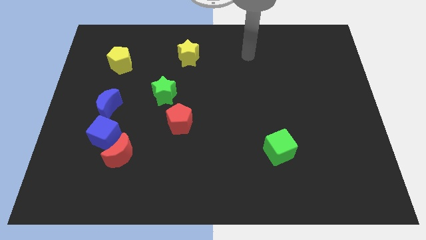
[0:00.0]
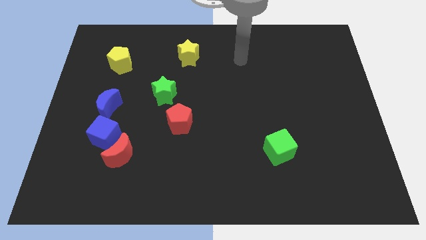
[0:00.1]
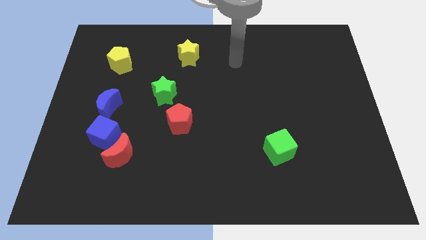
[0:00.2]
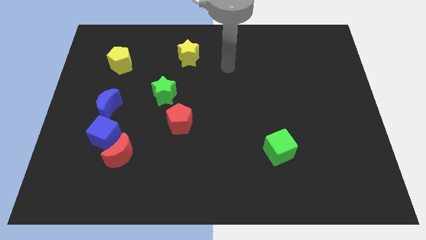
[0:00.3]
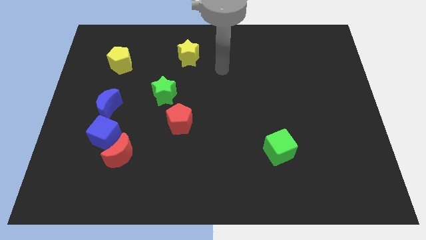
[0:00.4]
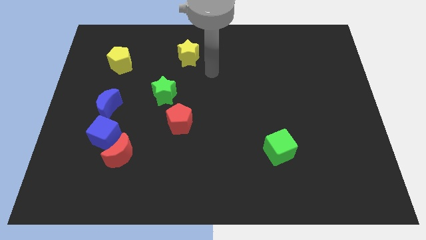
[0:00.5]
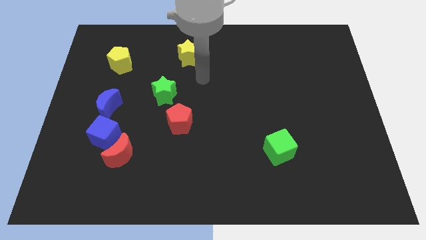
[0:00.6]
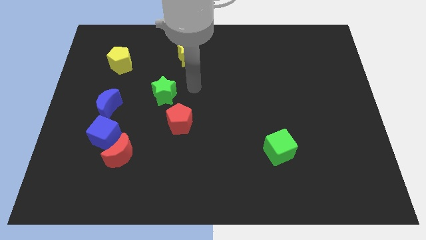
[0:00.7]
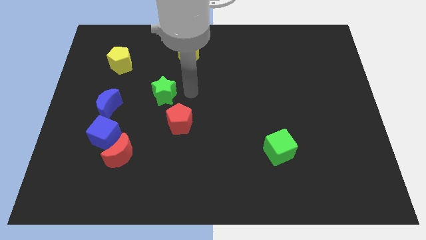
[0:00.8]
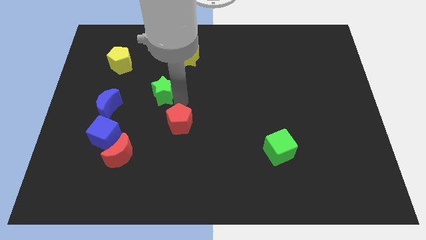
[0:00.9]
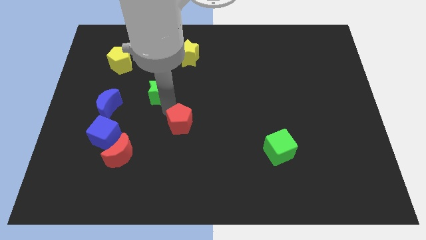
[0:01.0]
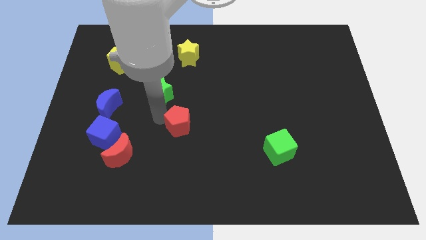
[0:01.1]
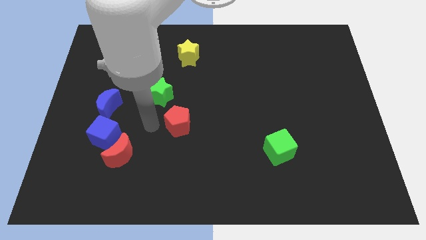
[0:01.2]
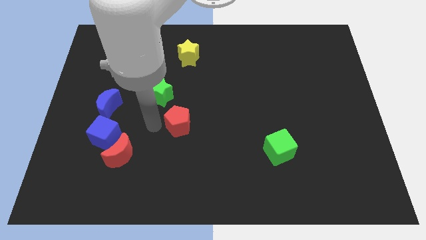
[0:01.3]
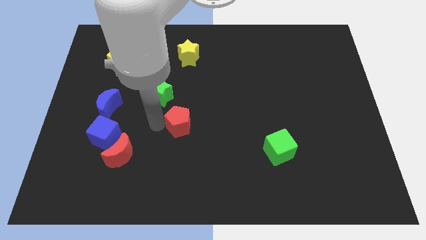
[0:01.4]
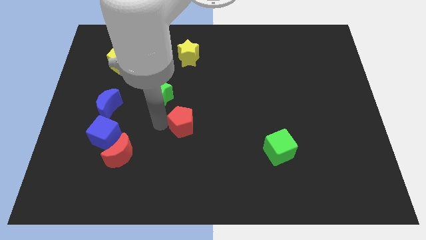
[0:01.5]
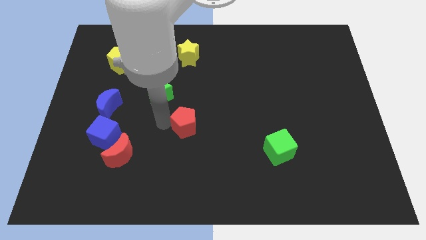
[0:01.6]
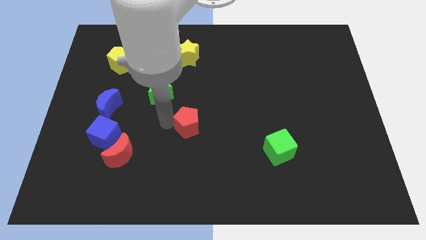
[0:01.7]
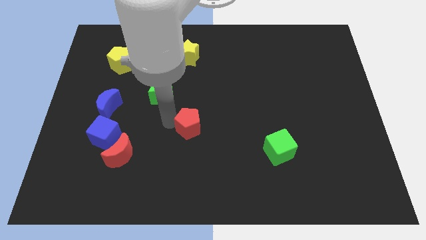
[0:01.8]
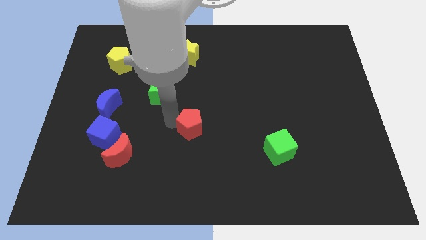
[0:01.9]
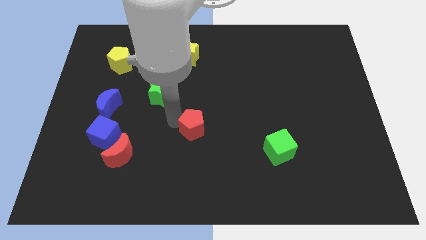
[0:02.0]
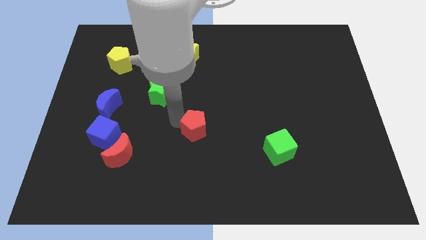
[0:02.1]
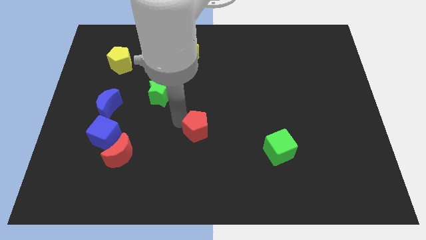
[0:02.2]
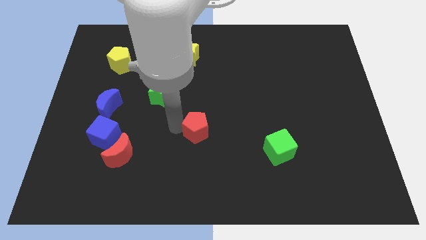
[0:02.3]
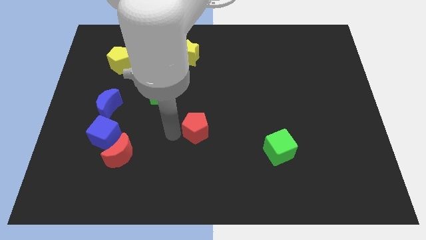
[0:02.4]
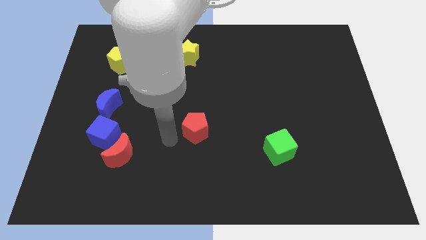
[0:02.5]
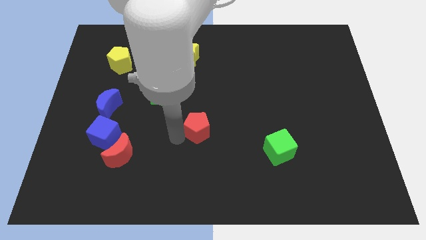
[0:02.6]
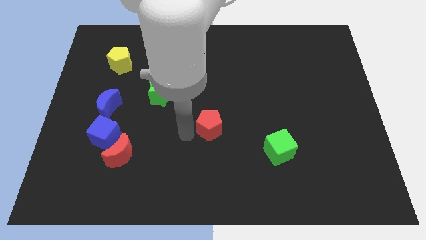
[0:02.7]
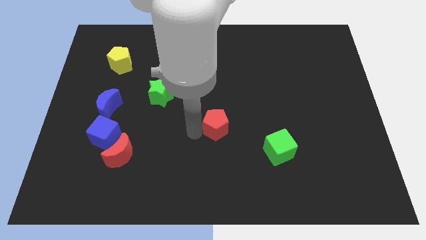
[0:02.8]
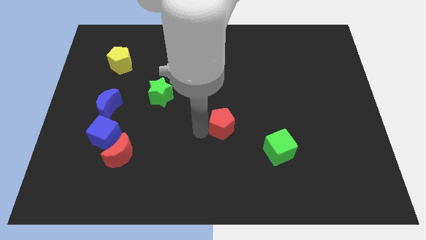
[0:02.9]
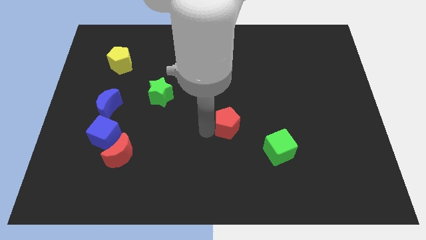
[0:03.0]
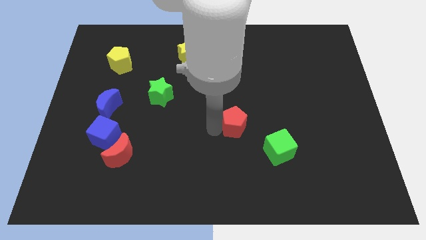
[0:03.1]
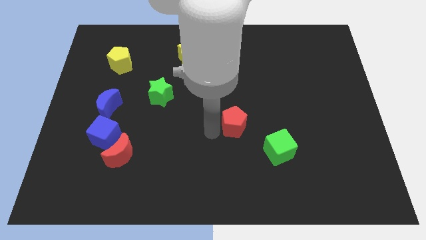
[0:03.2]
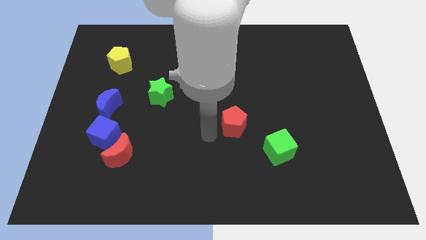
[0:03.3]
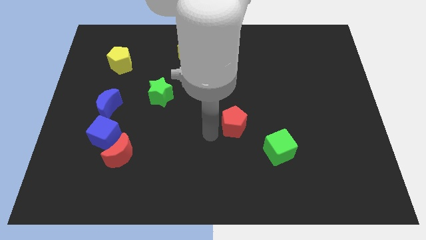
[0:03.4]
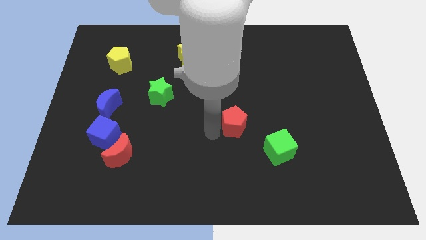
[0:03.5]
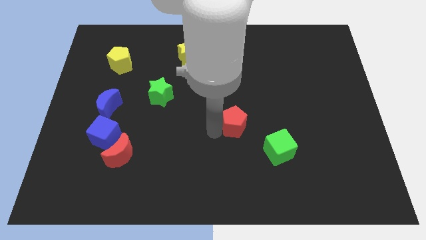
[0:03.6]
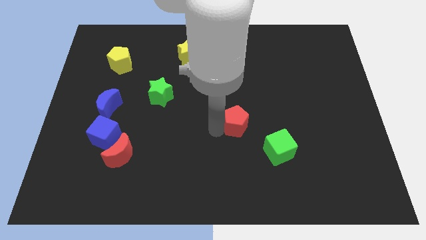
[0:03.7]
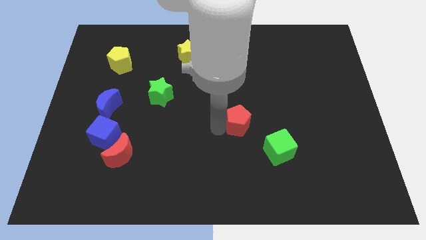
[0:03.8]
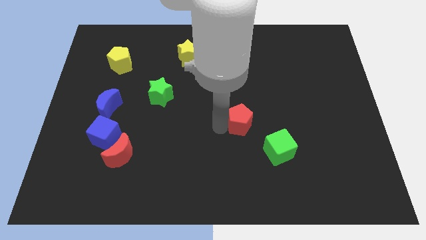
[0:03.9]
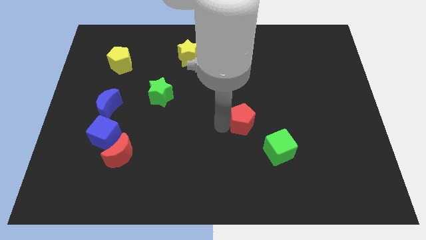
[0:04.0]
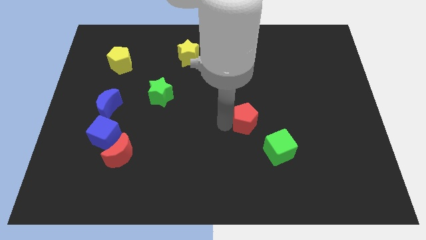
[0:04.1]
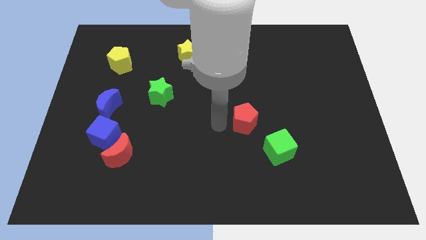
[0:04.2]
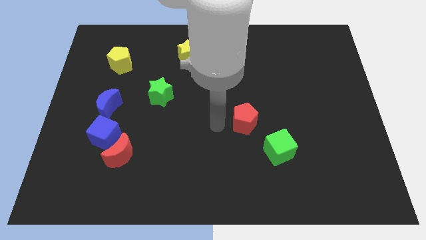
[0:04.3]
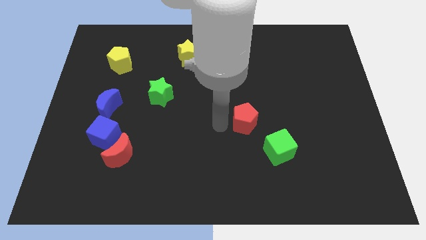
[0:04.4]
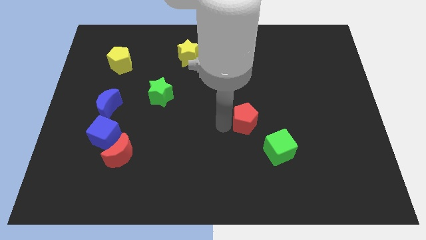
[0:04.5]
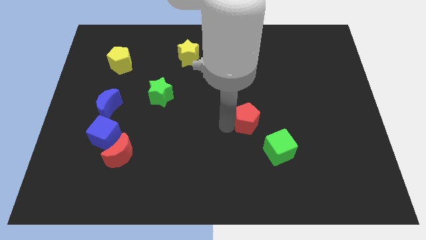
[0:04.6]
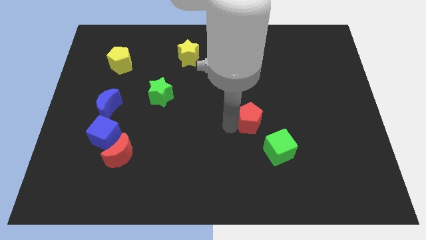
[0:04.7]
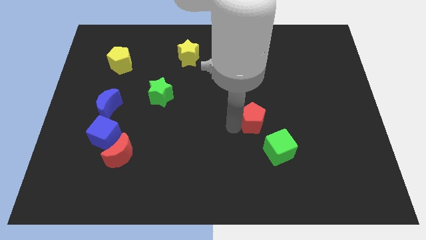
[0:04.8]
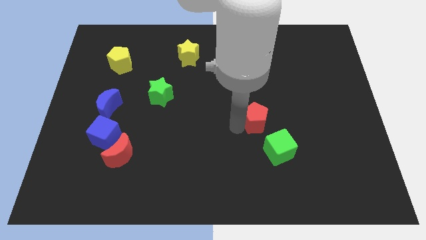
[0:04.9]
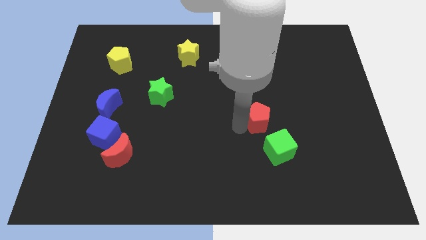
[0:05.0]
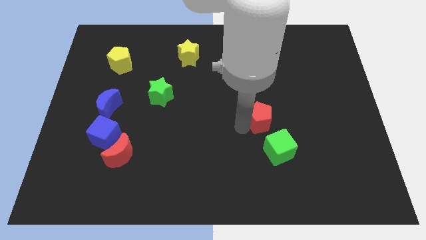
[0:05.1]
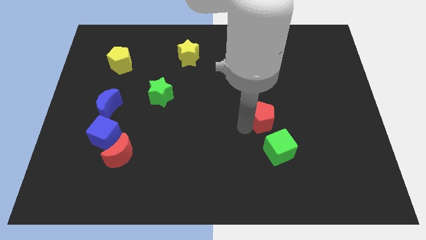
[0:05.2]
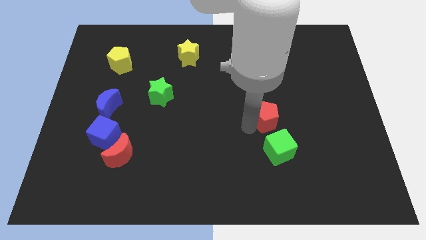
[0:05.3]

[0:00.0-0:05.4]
push the red pentagon to the right

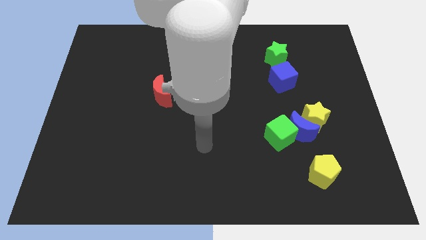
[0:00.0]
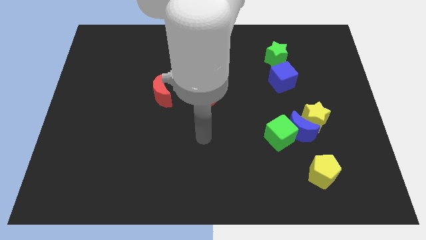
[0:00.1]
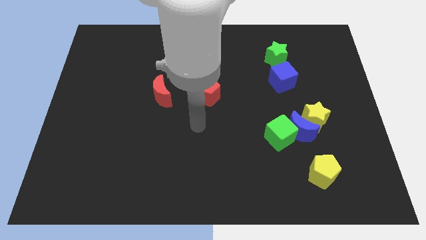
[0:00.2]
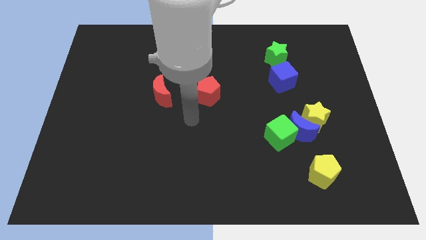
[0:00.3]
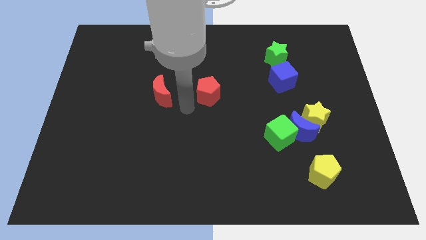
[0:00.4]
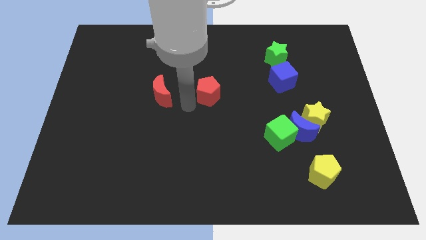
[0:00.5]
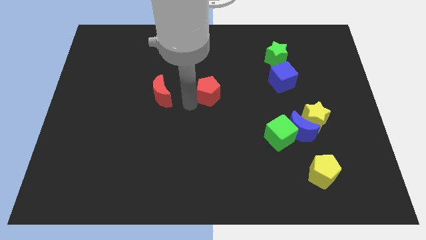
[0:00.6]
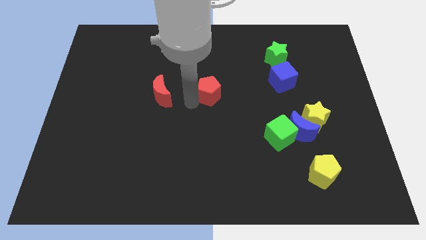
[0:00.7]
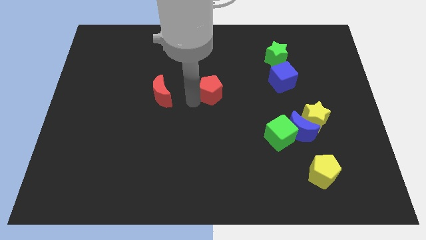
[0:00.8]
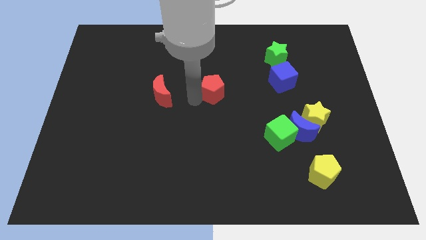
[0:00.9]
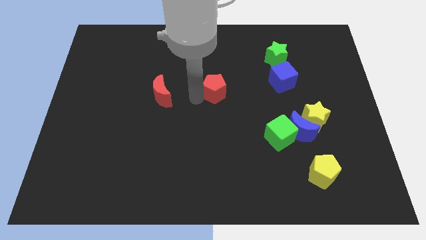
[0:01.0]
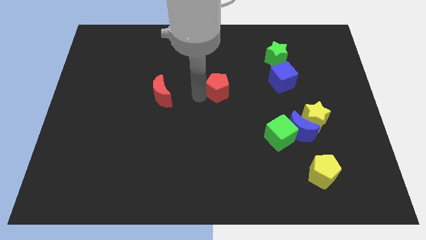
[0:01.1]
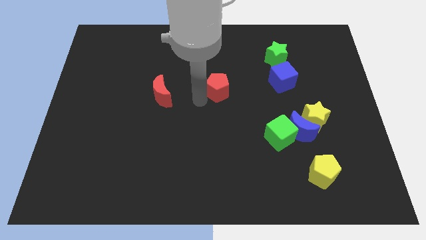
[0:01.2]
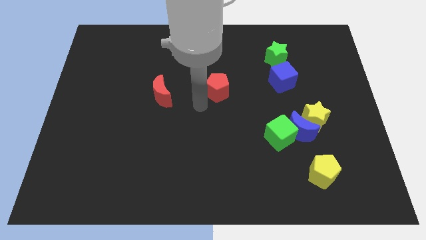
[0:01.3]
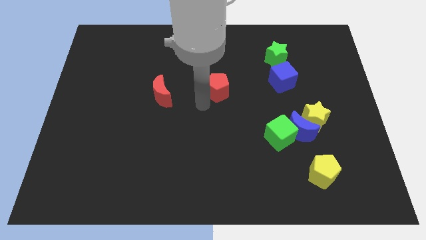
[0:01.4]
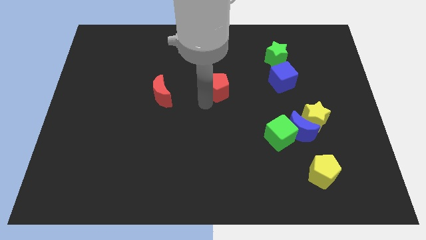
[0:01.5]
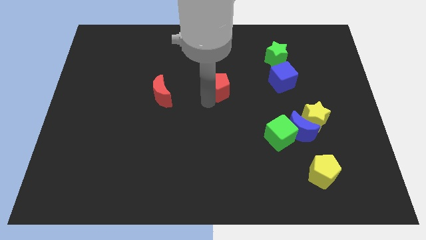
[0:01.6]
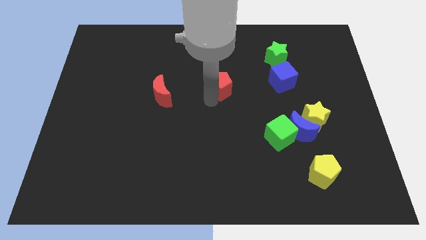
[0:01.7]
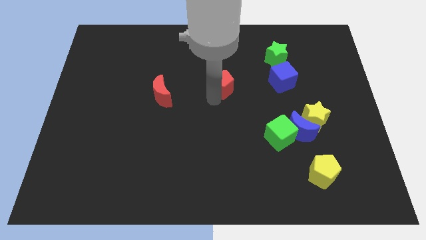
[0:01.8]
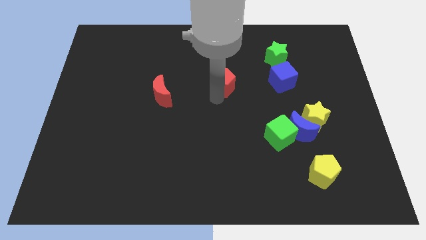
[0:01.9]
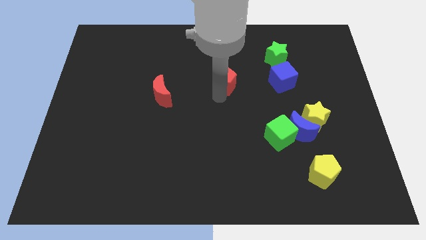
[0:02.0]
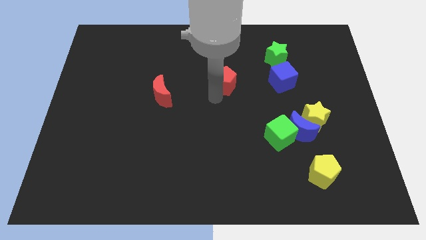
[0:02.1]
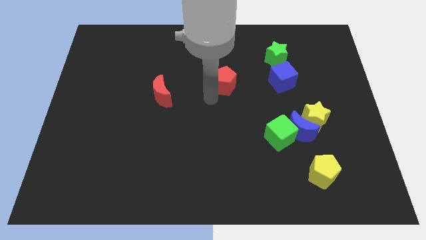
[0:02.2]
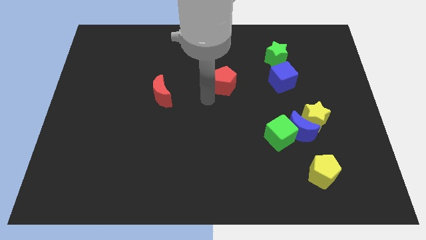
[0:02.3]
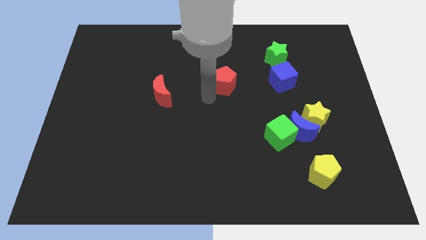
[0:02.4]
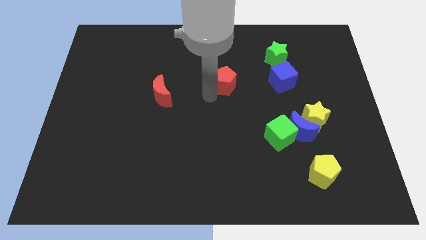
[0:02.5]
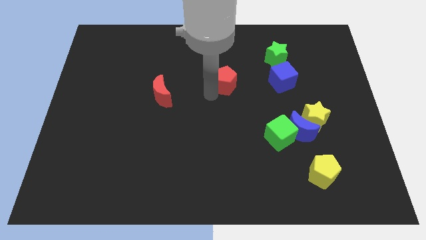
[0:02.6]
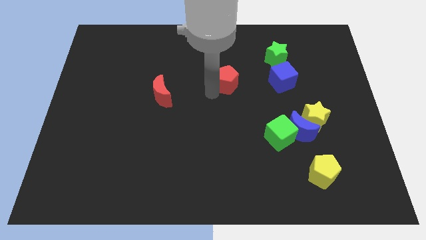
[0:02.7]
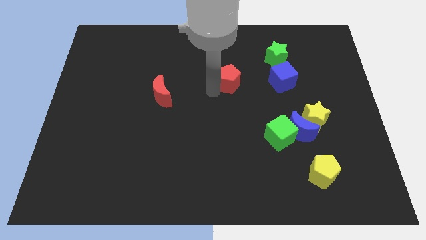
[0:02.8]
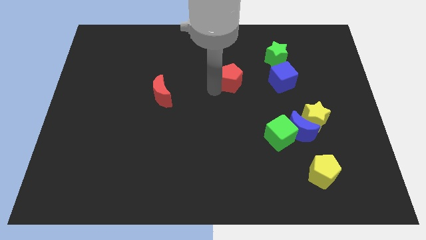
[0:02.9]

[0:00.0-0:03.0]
slide the red pentagon upwards and then right a little bit
